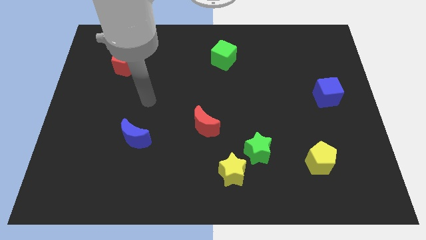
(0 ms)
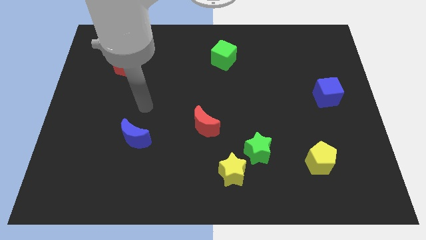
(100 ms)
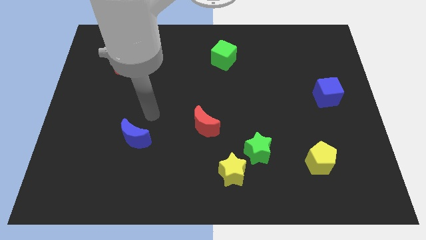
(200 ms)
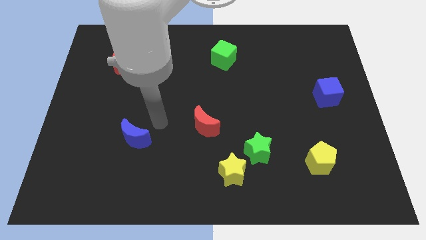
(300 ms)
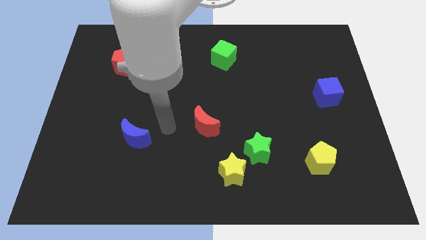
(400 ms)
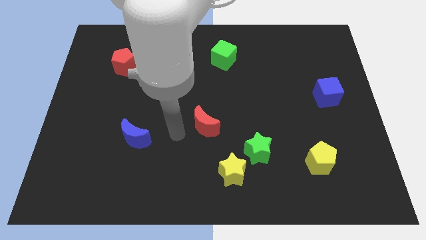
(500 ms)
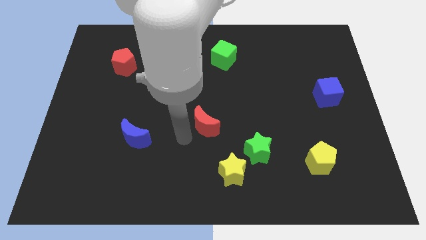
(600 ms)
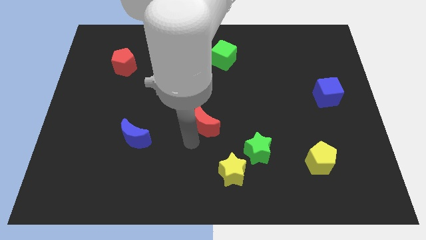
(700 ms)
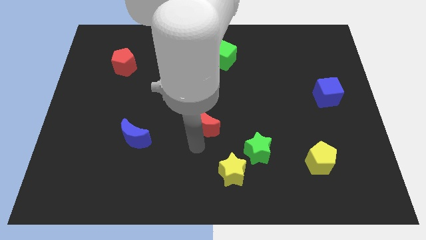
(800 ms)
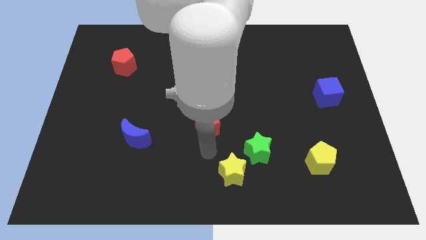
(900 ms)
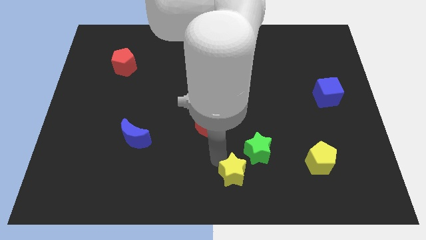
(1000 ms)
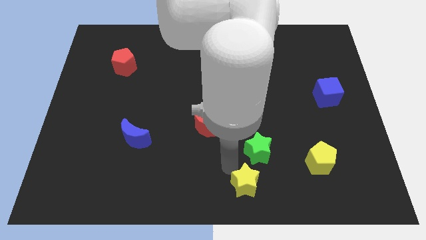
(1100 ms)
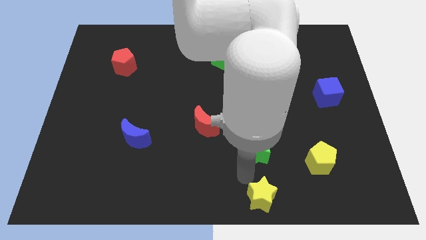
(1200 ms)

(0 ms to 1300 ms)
move the green star away from the yellow star

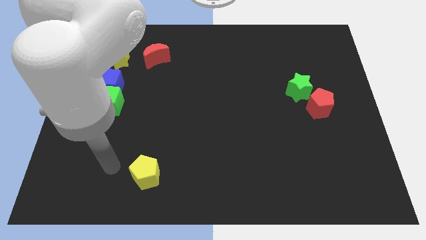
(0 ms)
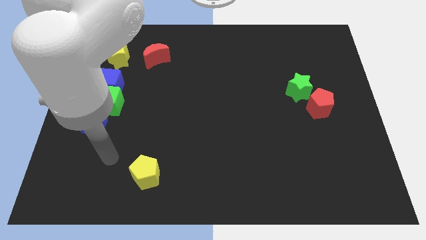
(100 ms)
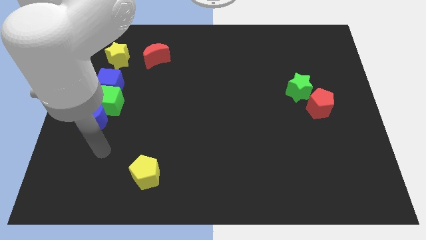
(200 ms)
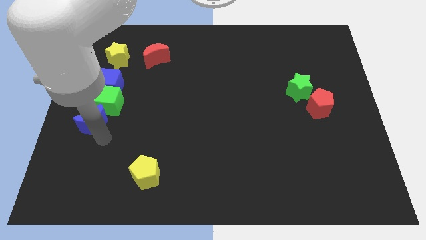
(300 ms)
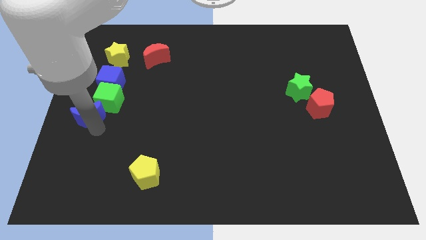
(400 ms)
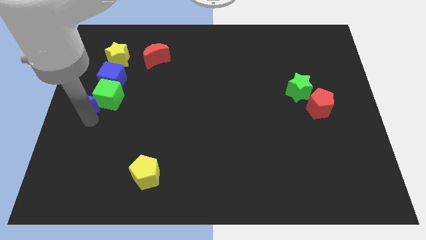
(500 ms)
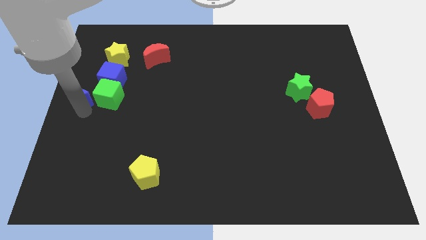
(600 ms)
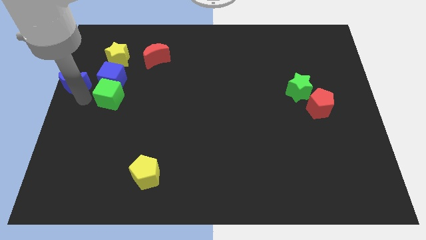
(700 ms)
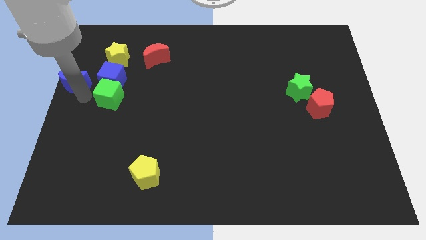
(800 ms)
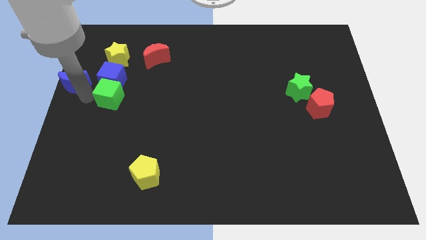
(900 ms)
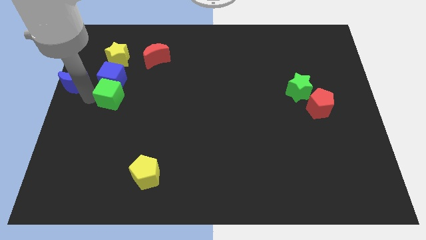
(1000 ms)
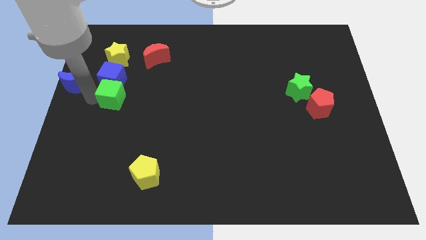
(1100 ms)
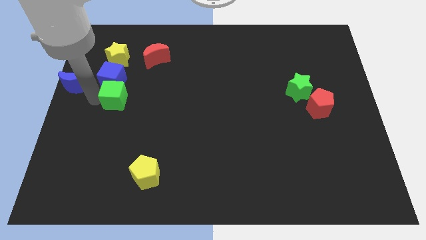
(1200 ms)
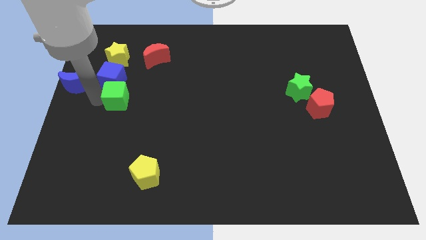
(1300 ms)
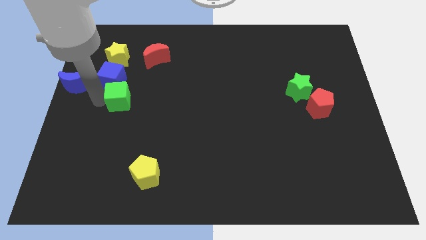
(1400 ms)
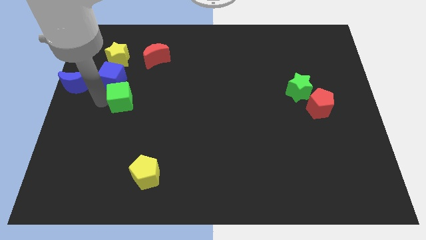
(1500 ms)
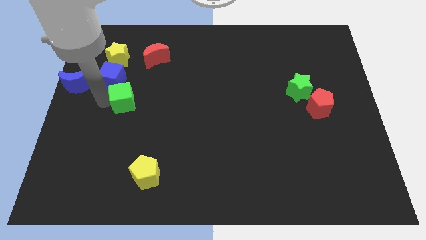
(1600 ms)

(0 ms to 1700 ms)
separate the green cube from the blue cube and blue moon

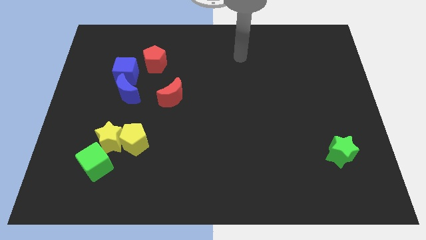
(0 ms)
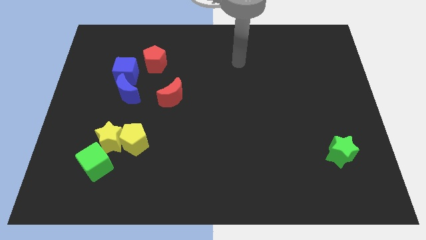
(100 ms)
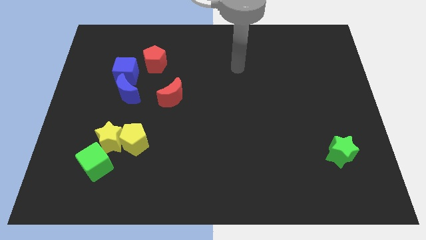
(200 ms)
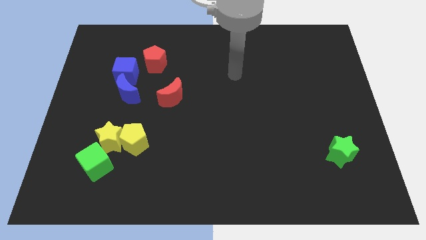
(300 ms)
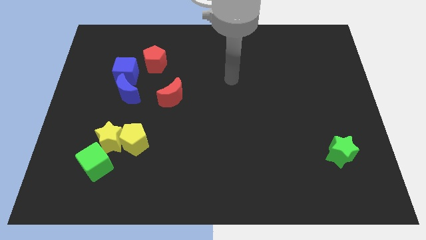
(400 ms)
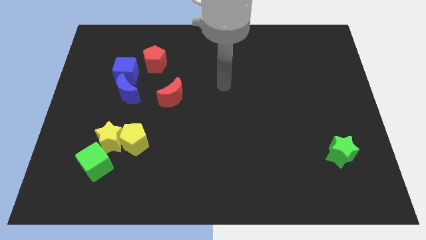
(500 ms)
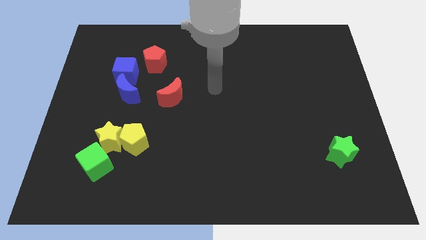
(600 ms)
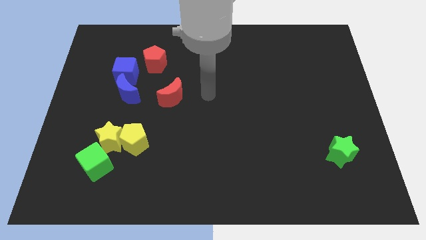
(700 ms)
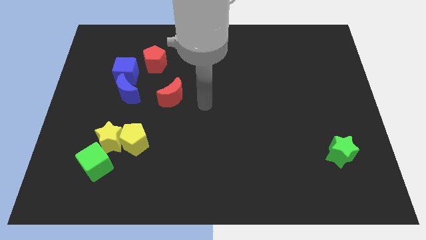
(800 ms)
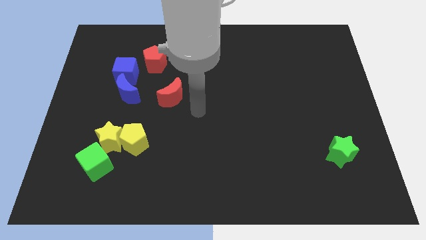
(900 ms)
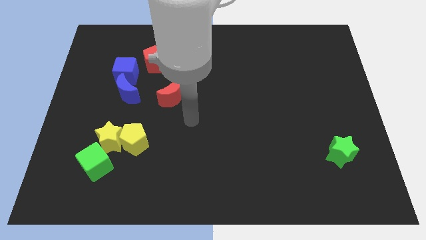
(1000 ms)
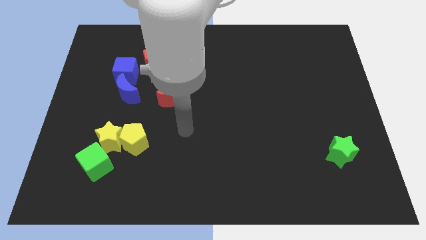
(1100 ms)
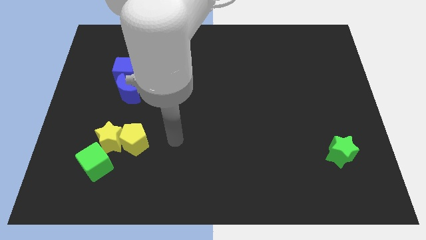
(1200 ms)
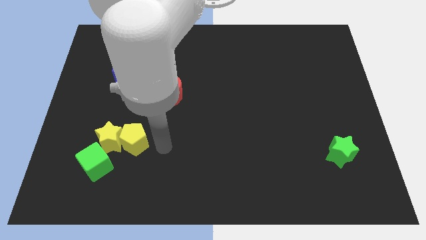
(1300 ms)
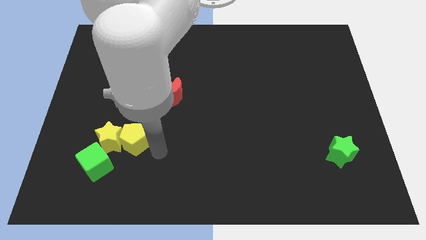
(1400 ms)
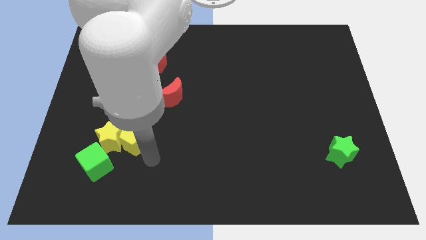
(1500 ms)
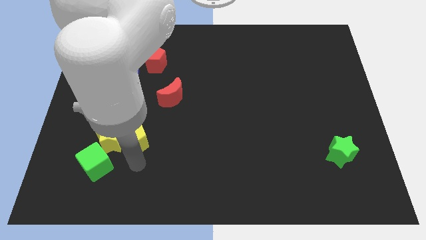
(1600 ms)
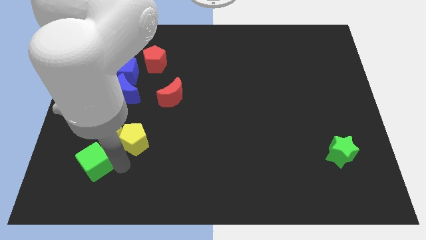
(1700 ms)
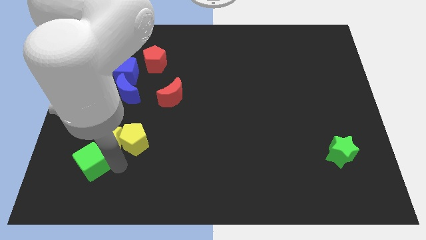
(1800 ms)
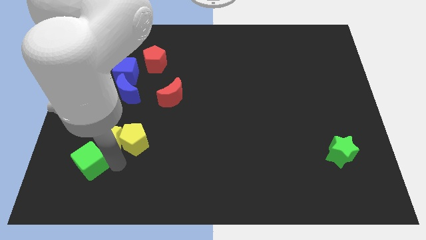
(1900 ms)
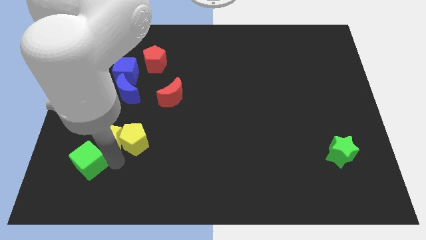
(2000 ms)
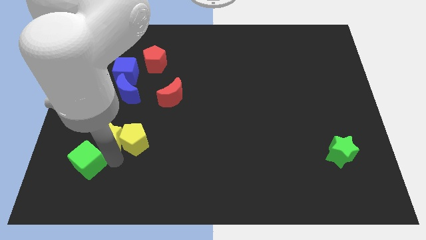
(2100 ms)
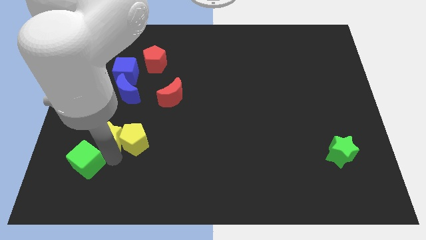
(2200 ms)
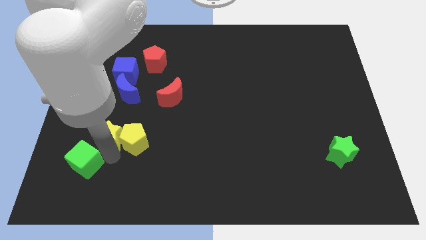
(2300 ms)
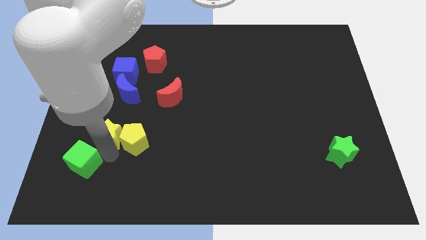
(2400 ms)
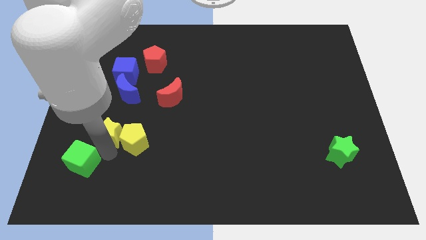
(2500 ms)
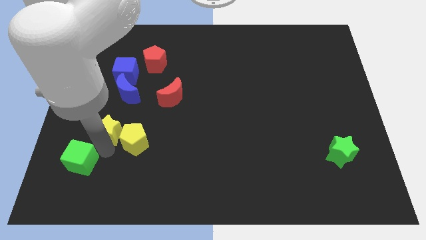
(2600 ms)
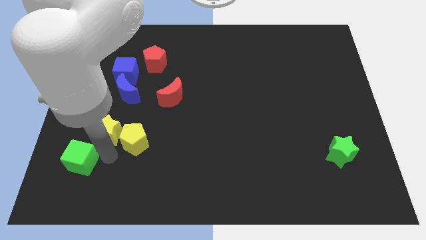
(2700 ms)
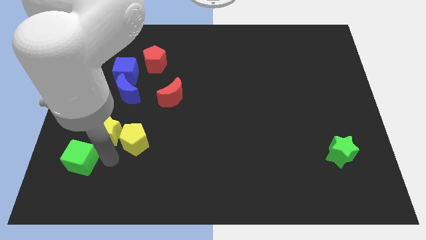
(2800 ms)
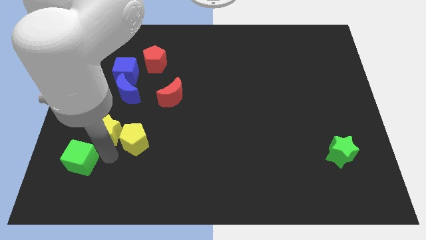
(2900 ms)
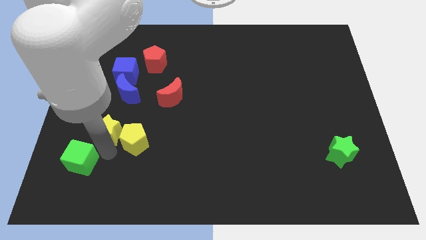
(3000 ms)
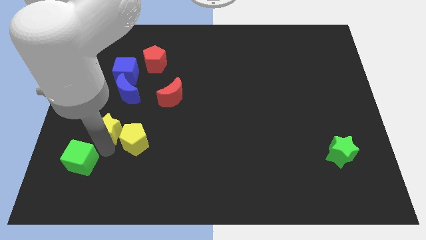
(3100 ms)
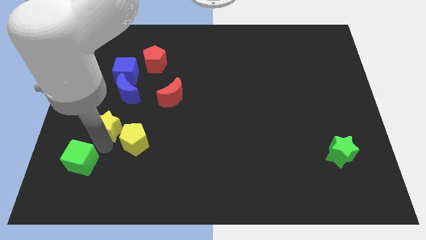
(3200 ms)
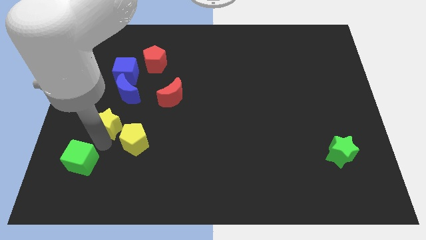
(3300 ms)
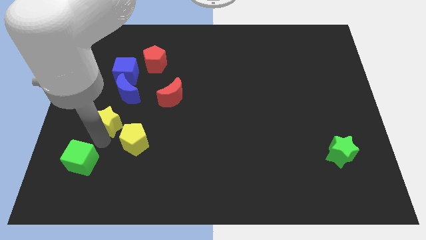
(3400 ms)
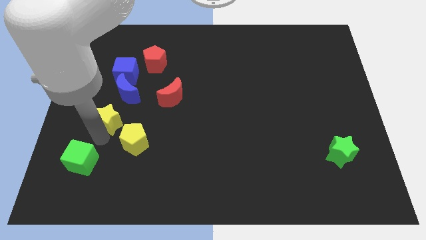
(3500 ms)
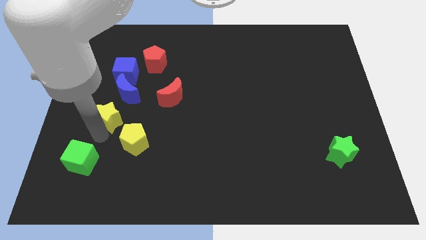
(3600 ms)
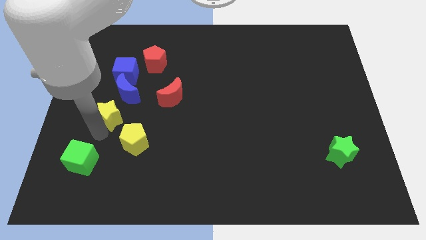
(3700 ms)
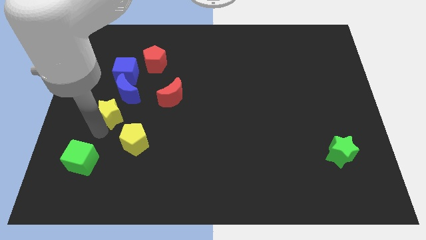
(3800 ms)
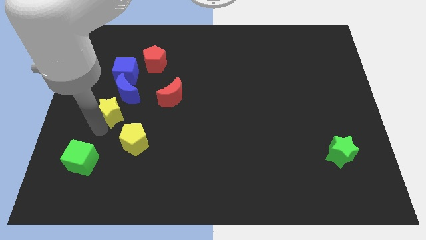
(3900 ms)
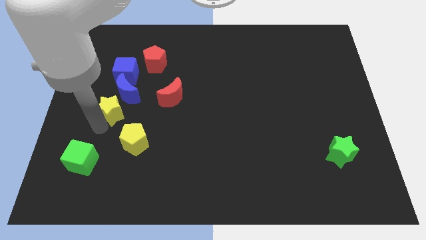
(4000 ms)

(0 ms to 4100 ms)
move the yellow star away from the yellow pentagon and green cube

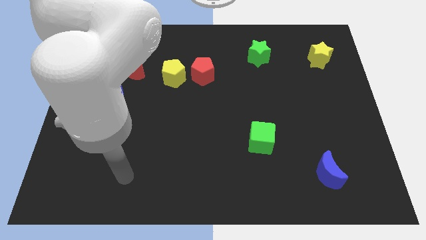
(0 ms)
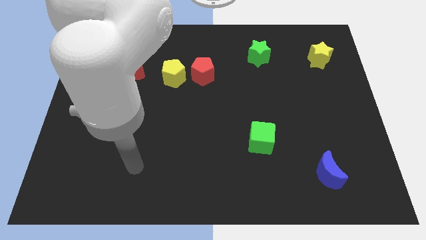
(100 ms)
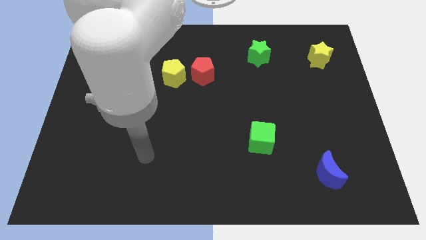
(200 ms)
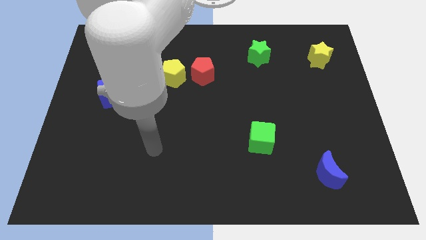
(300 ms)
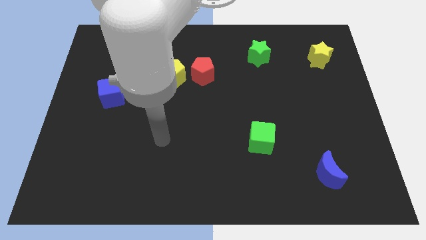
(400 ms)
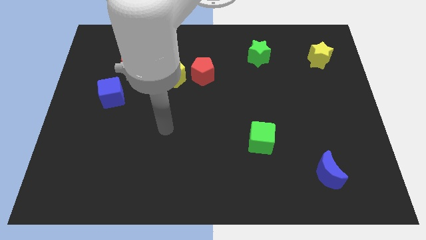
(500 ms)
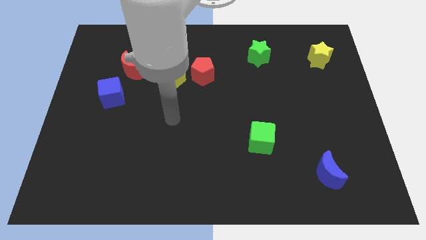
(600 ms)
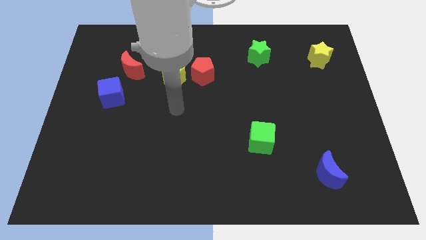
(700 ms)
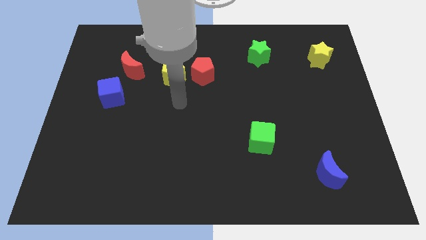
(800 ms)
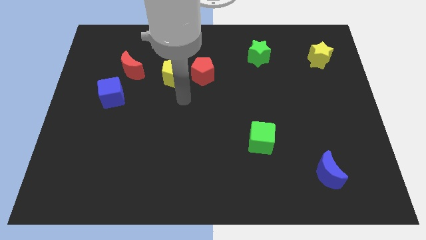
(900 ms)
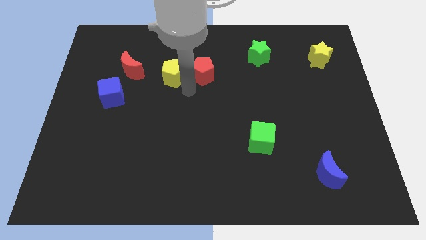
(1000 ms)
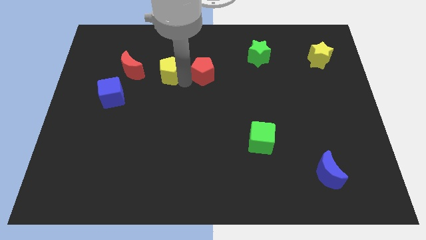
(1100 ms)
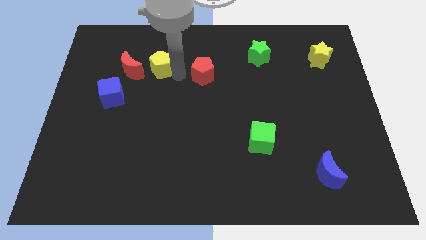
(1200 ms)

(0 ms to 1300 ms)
pull the red pentagon apart from the yellow pentagon

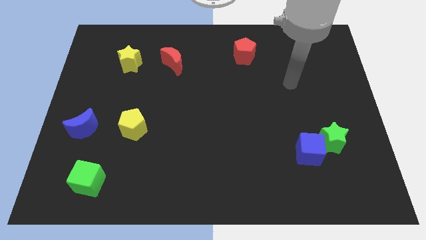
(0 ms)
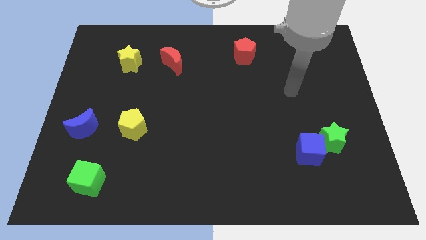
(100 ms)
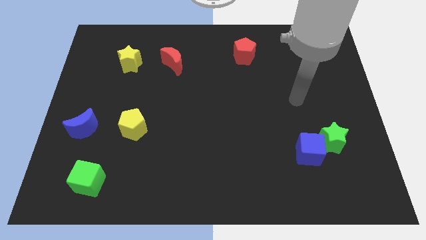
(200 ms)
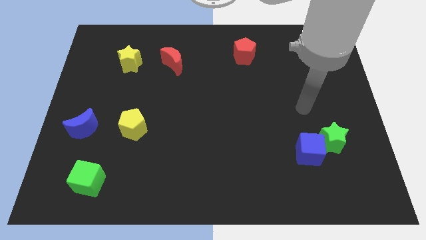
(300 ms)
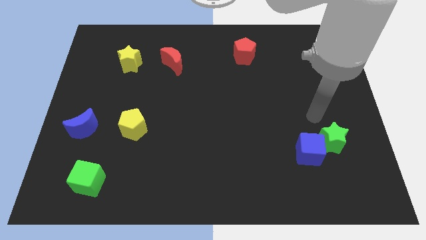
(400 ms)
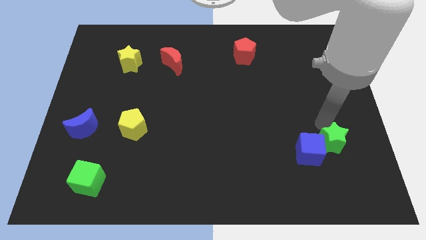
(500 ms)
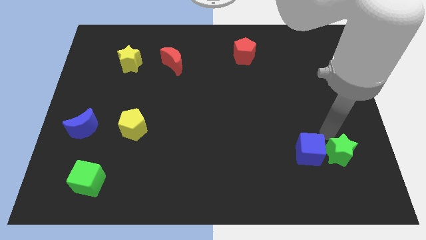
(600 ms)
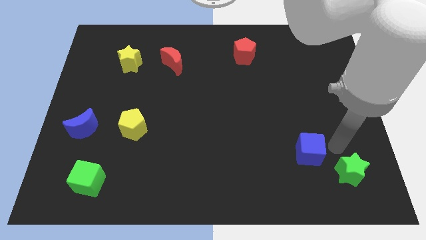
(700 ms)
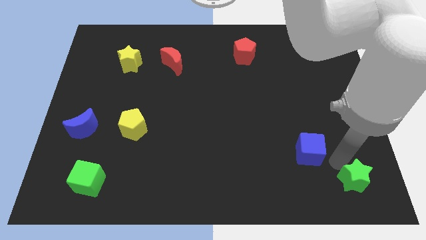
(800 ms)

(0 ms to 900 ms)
pull the blue cube apart from the green star
